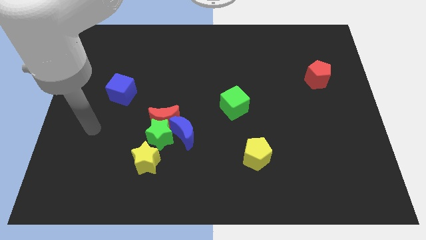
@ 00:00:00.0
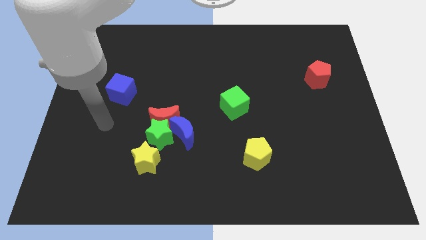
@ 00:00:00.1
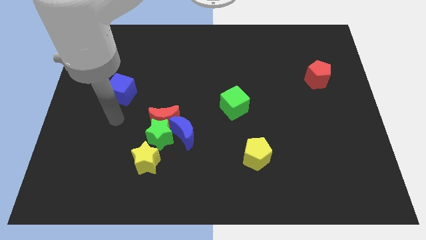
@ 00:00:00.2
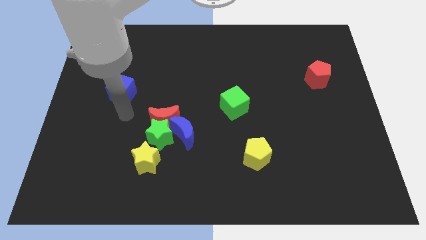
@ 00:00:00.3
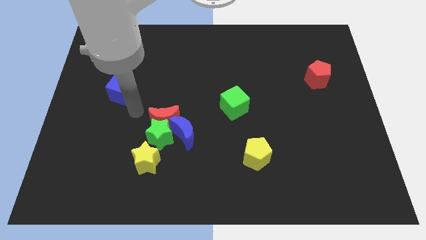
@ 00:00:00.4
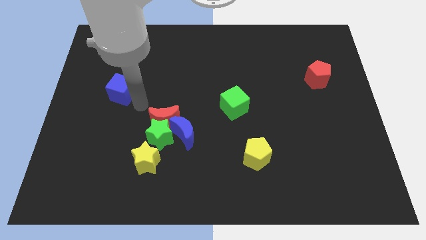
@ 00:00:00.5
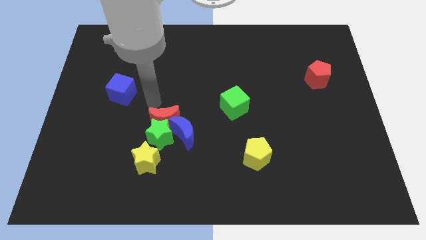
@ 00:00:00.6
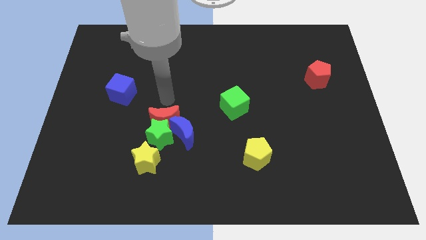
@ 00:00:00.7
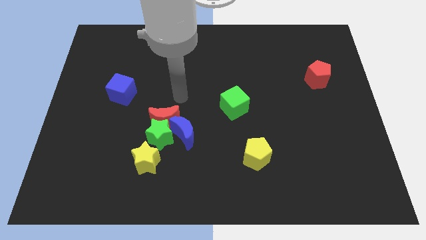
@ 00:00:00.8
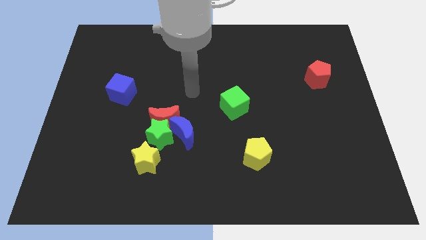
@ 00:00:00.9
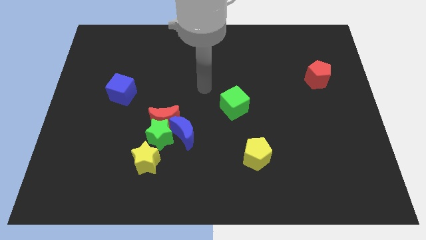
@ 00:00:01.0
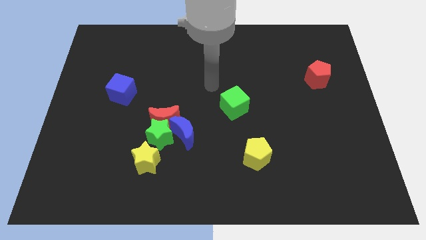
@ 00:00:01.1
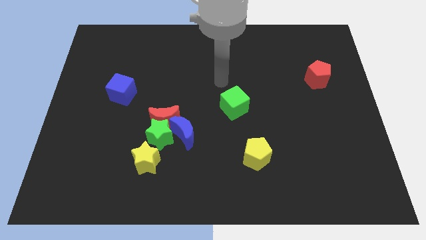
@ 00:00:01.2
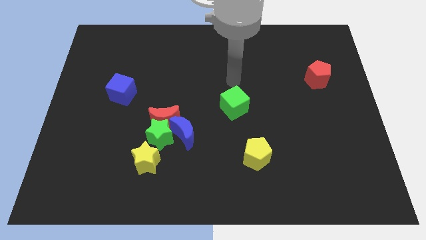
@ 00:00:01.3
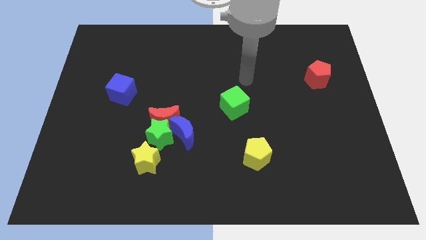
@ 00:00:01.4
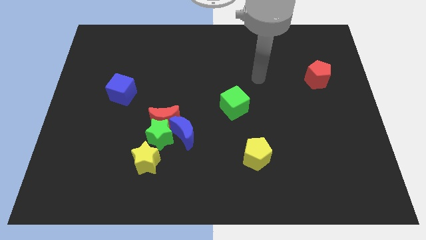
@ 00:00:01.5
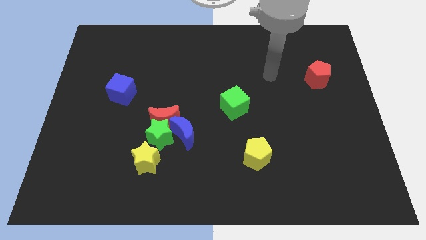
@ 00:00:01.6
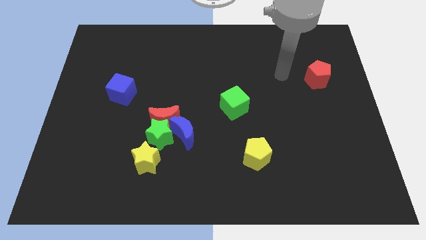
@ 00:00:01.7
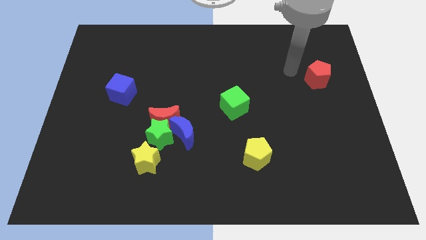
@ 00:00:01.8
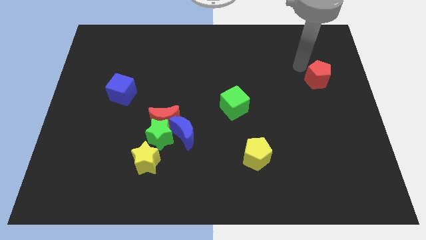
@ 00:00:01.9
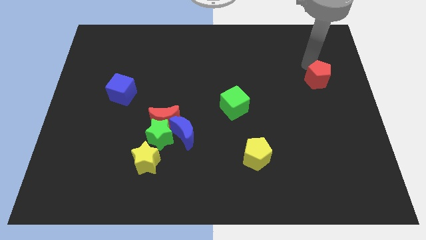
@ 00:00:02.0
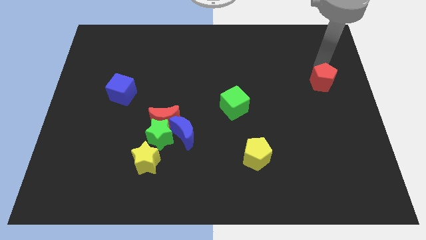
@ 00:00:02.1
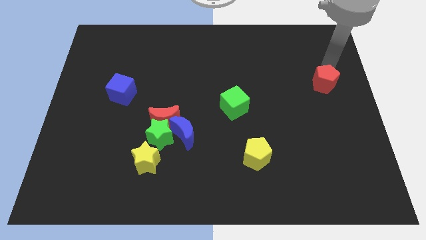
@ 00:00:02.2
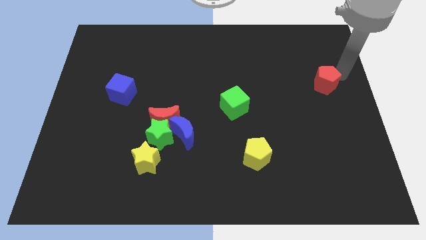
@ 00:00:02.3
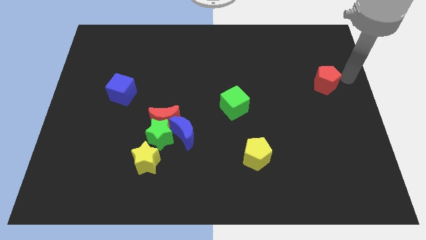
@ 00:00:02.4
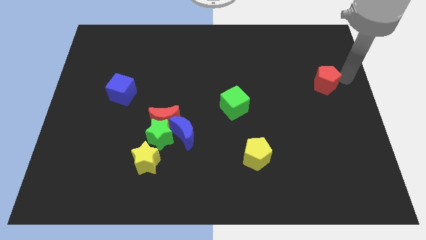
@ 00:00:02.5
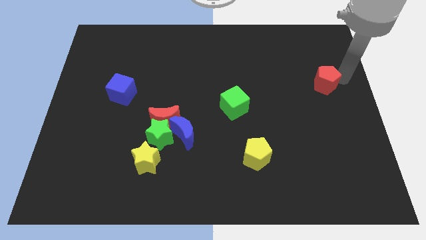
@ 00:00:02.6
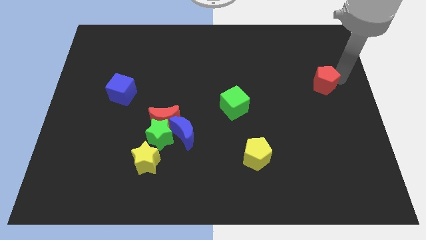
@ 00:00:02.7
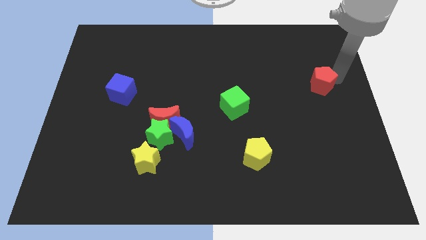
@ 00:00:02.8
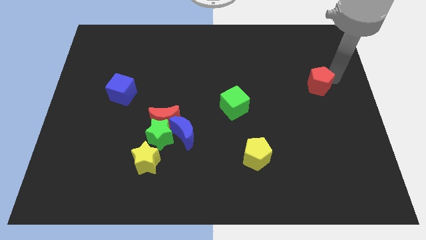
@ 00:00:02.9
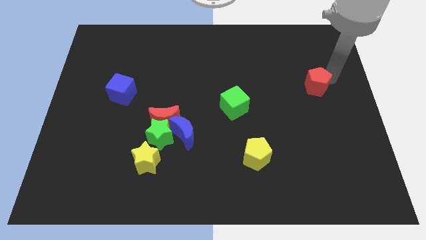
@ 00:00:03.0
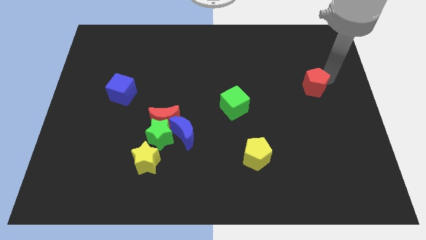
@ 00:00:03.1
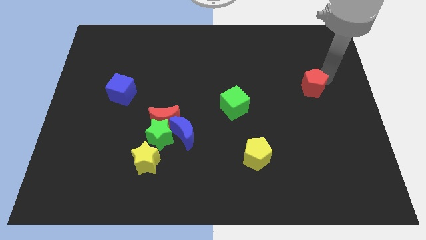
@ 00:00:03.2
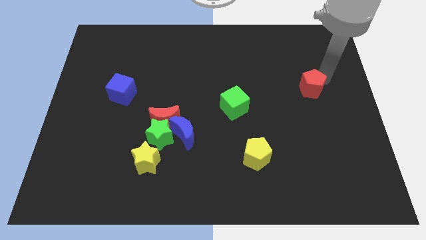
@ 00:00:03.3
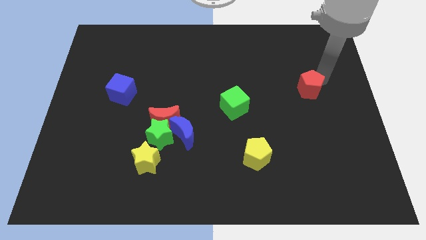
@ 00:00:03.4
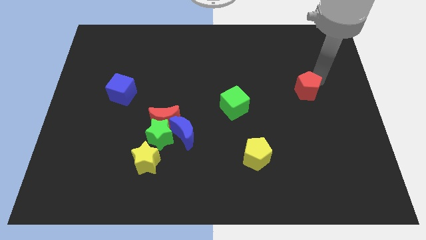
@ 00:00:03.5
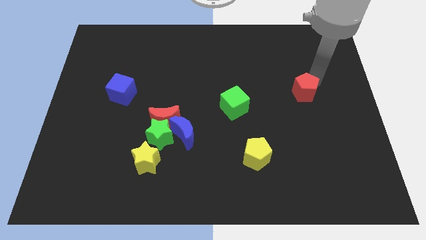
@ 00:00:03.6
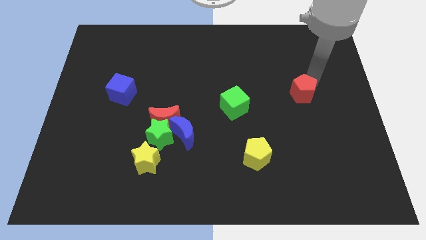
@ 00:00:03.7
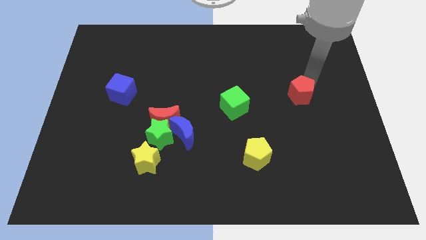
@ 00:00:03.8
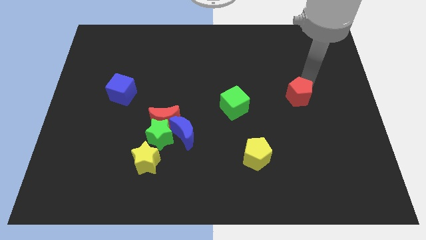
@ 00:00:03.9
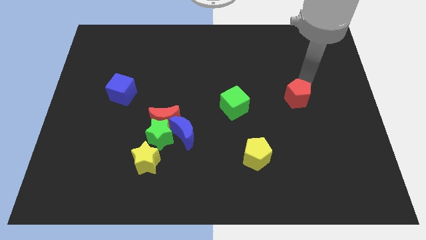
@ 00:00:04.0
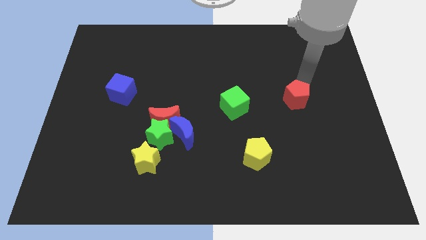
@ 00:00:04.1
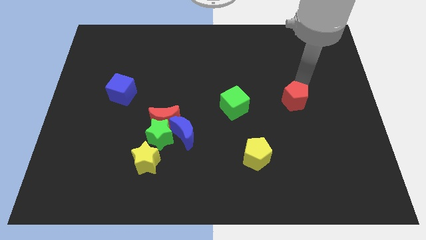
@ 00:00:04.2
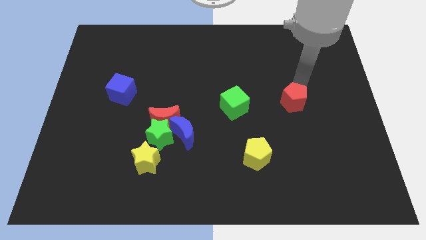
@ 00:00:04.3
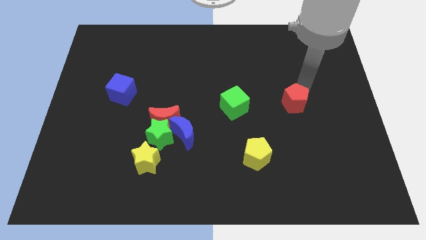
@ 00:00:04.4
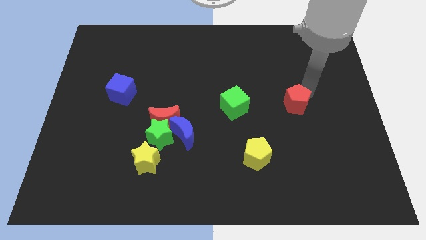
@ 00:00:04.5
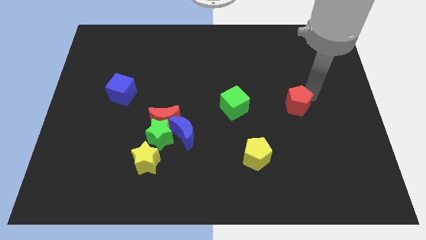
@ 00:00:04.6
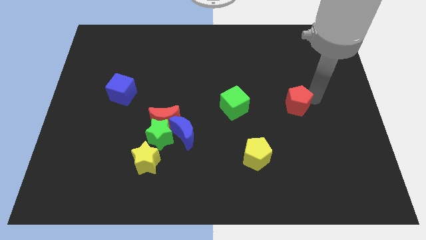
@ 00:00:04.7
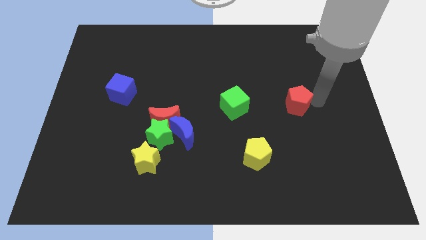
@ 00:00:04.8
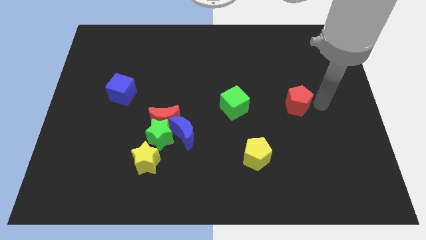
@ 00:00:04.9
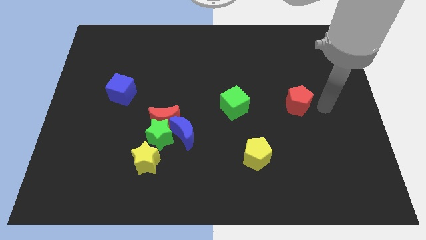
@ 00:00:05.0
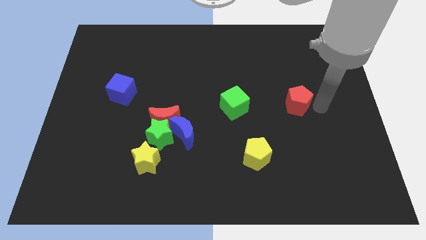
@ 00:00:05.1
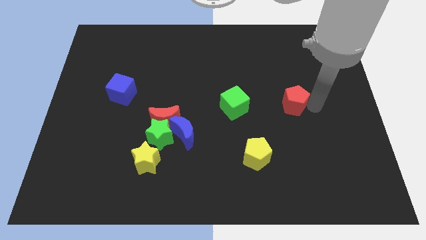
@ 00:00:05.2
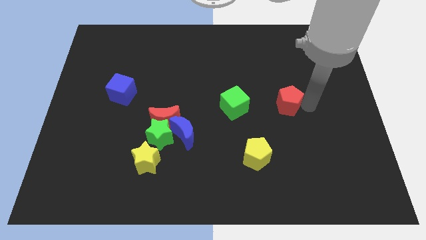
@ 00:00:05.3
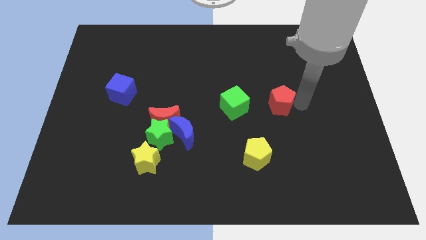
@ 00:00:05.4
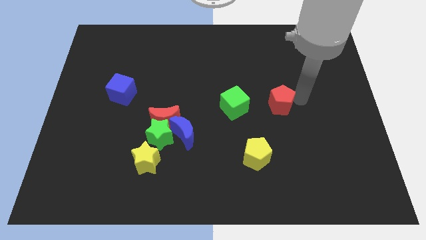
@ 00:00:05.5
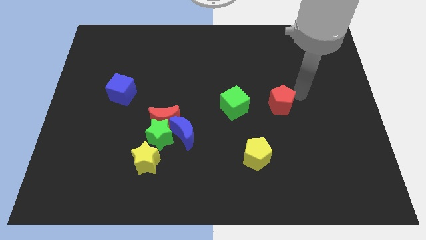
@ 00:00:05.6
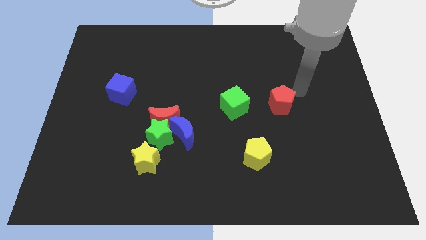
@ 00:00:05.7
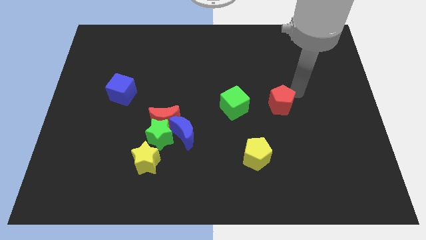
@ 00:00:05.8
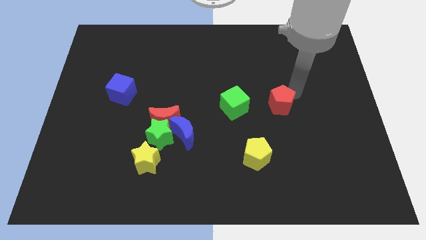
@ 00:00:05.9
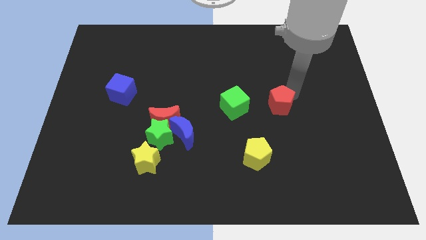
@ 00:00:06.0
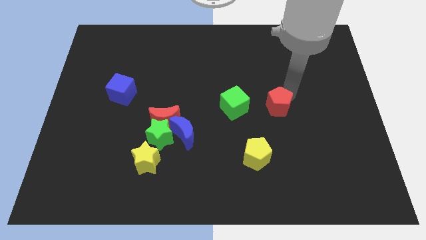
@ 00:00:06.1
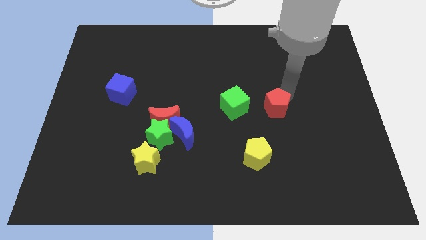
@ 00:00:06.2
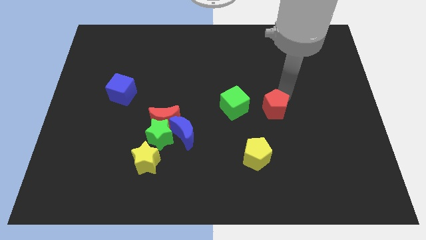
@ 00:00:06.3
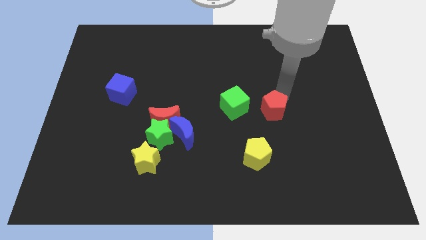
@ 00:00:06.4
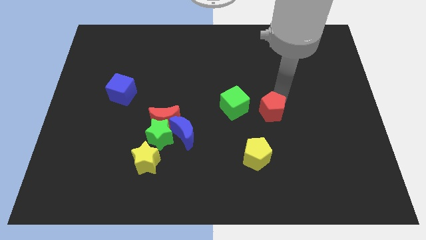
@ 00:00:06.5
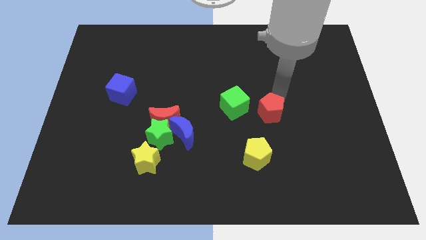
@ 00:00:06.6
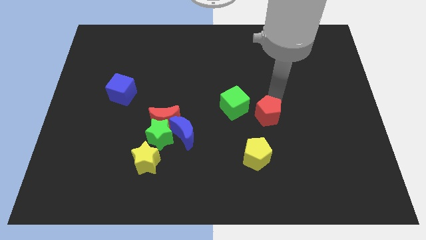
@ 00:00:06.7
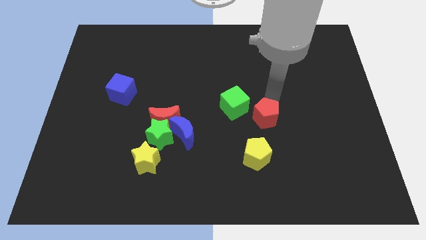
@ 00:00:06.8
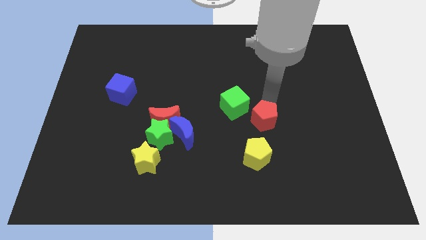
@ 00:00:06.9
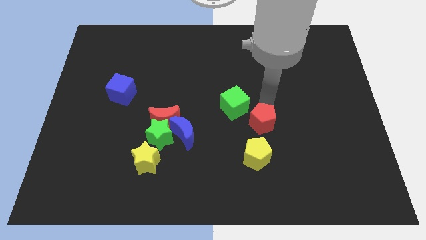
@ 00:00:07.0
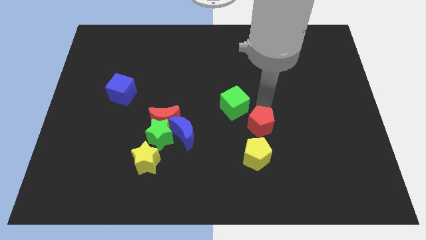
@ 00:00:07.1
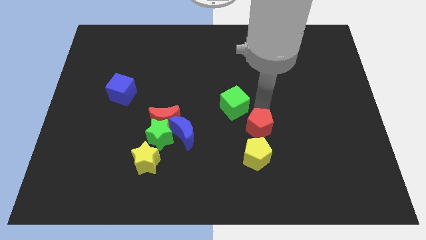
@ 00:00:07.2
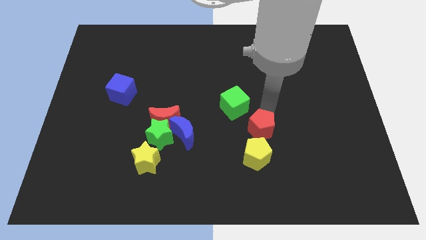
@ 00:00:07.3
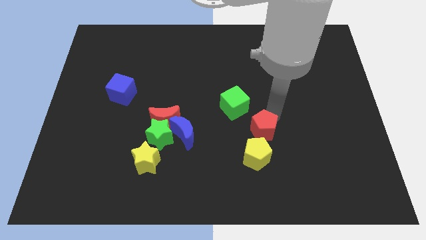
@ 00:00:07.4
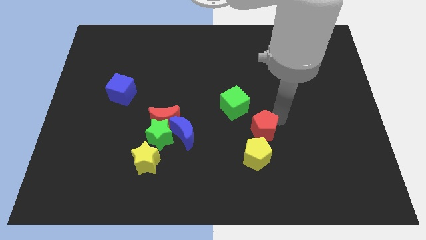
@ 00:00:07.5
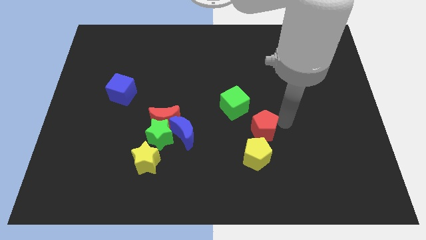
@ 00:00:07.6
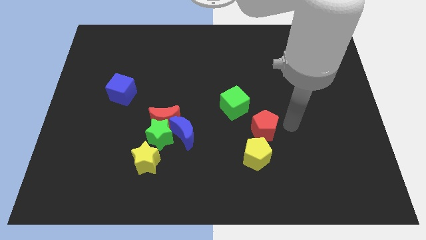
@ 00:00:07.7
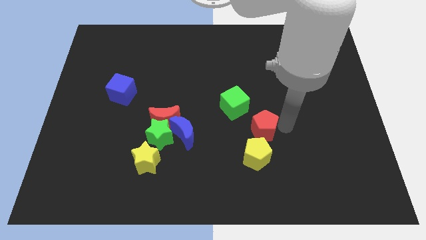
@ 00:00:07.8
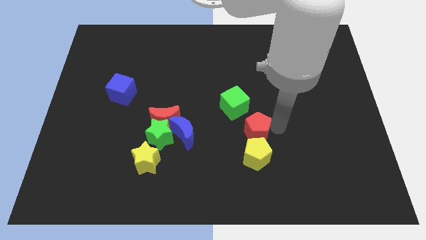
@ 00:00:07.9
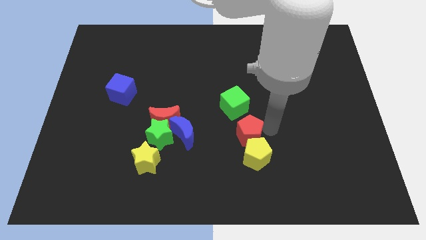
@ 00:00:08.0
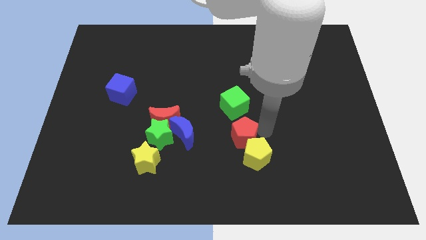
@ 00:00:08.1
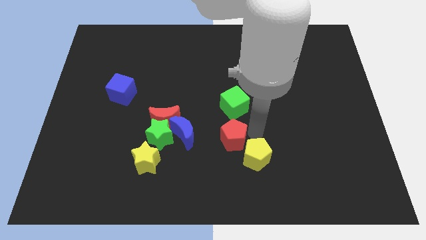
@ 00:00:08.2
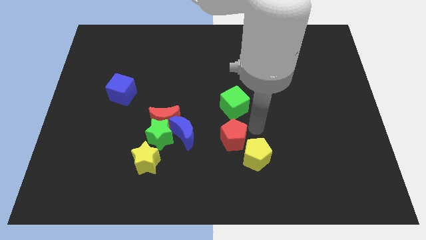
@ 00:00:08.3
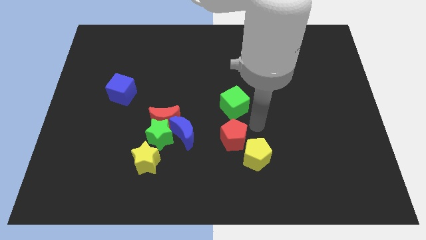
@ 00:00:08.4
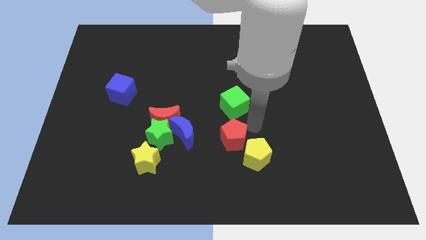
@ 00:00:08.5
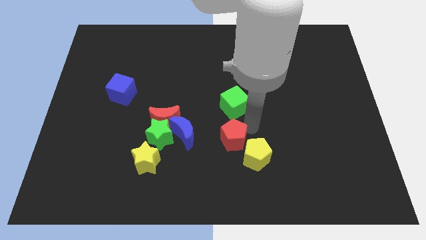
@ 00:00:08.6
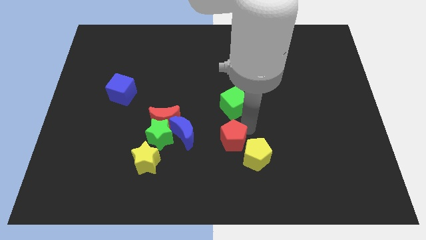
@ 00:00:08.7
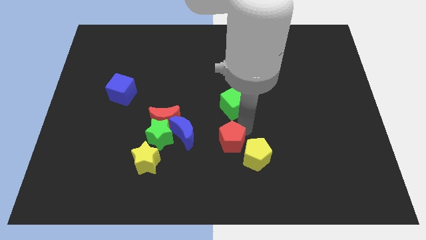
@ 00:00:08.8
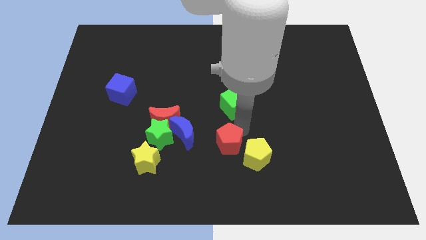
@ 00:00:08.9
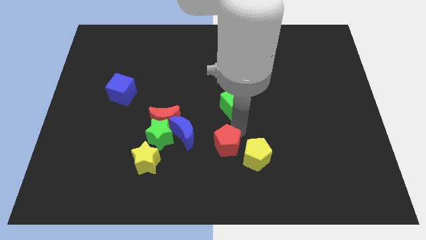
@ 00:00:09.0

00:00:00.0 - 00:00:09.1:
put the red pentagon to the bottom right of the blue moon
